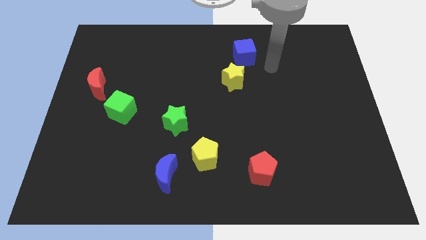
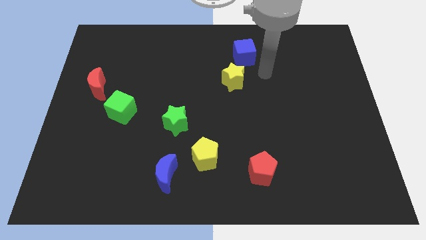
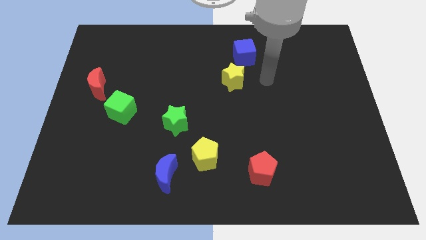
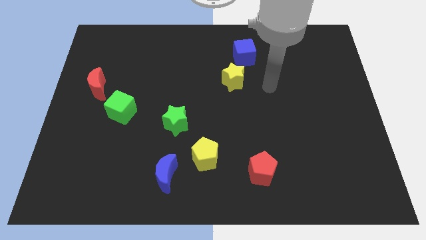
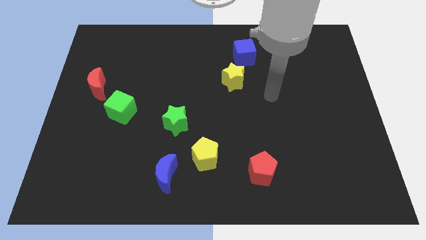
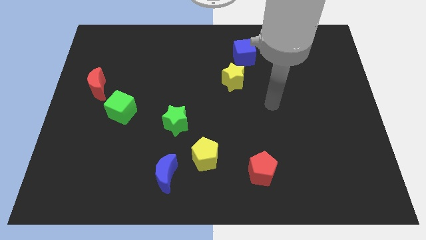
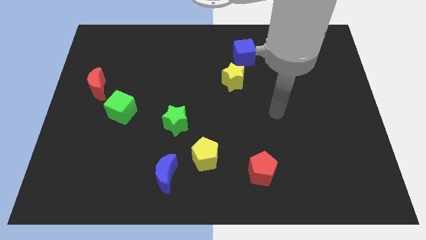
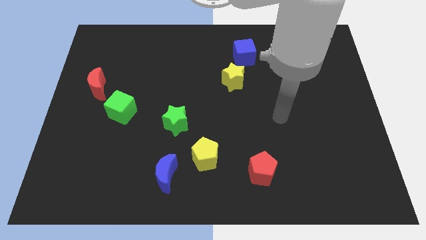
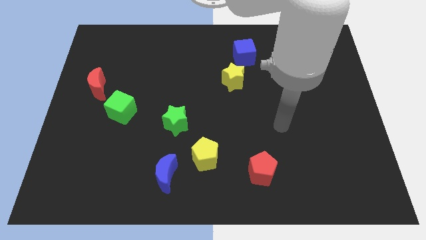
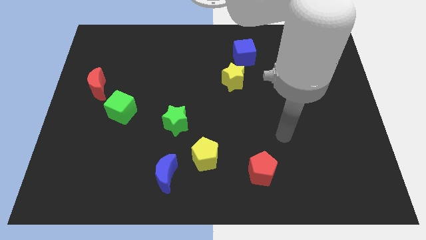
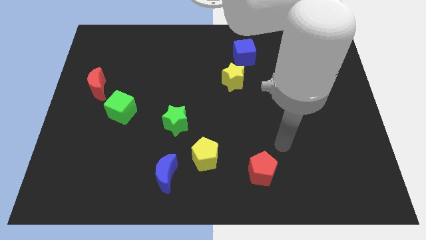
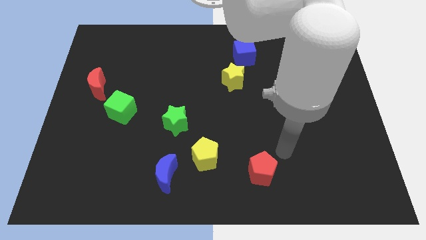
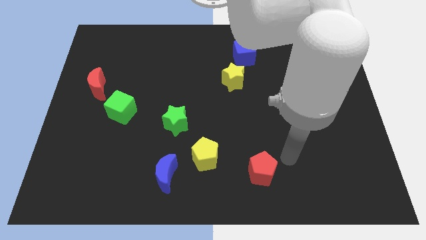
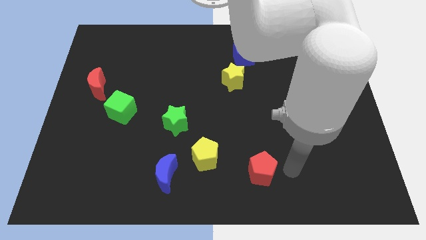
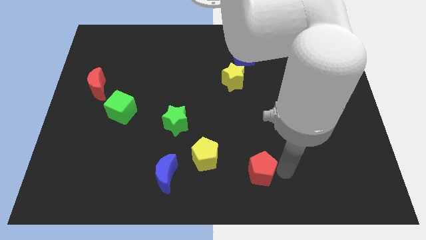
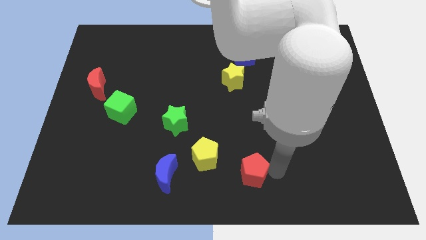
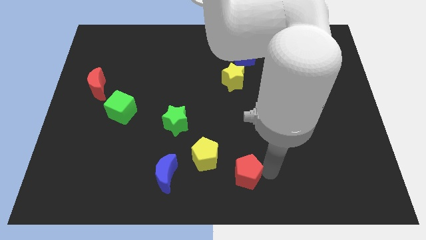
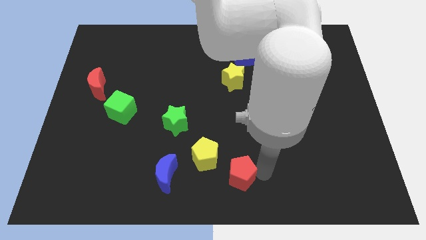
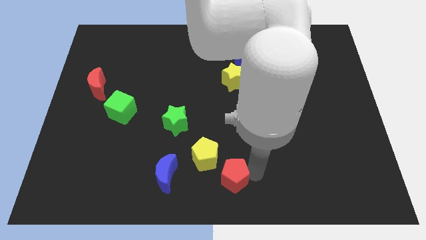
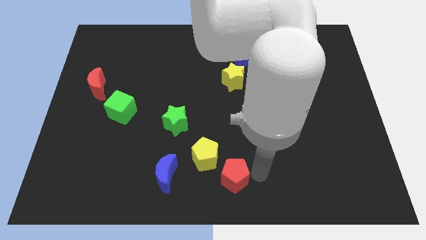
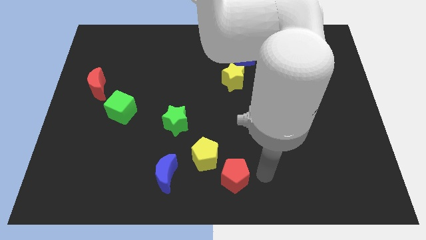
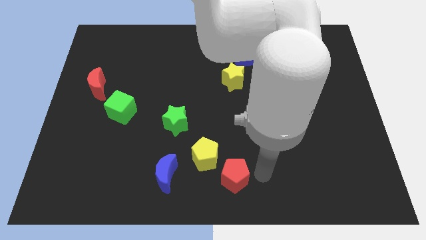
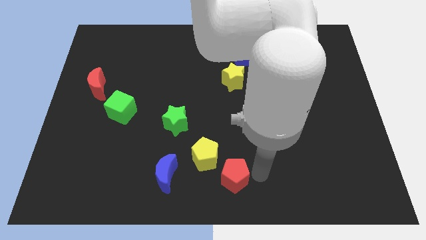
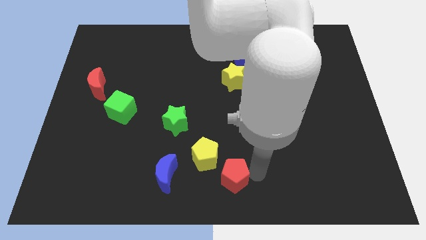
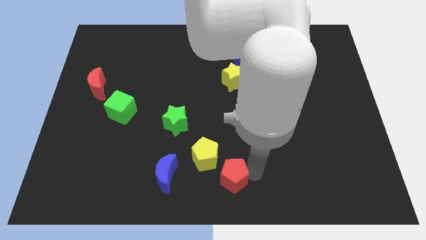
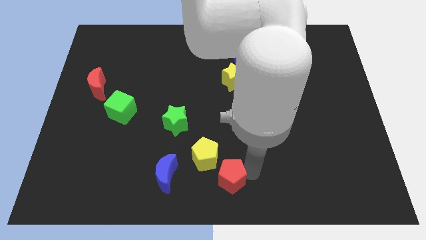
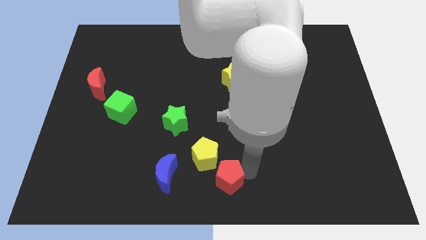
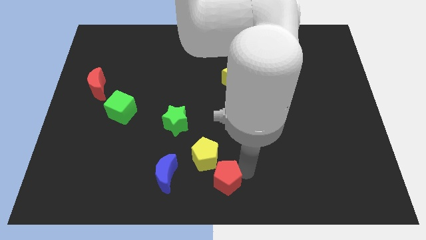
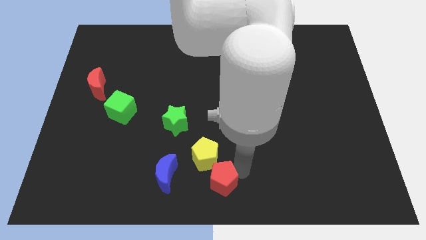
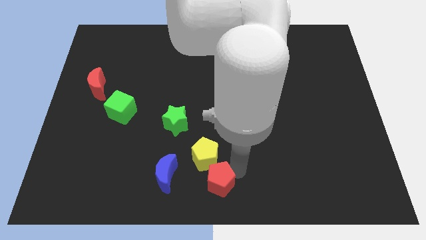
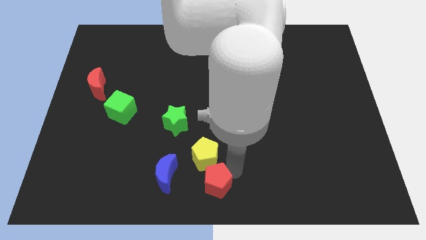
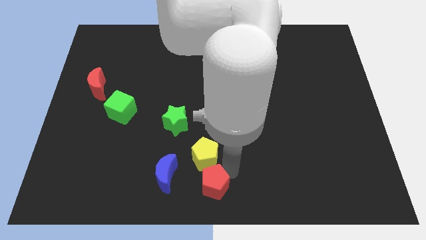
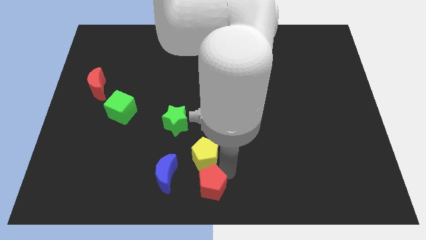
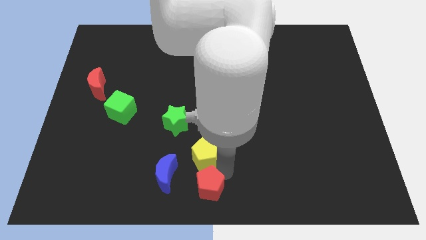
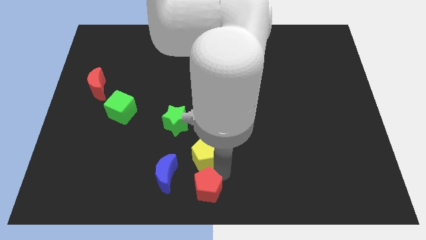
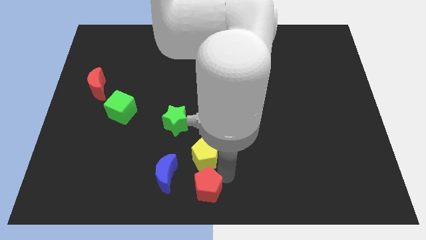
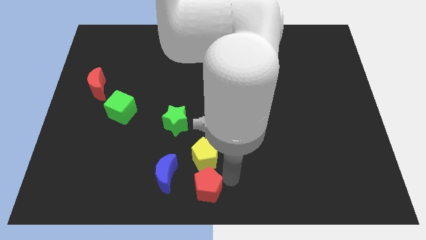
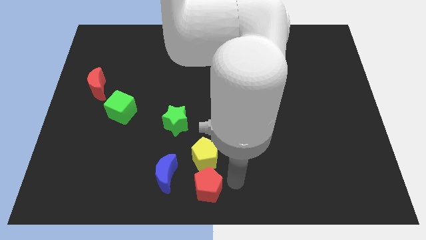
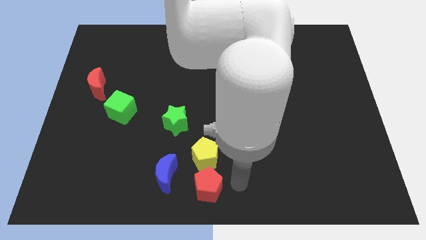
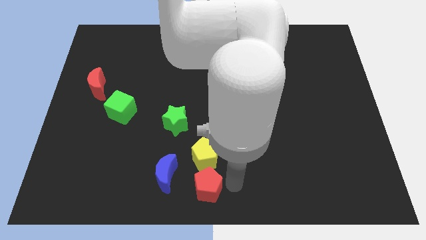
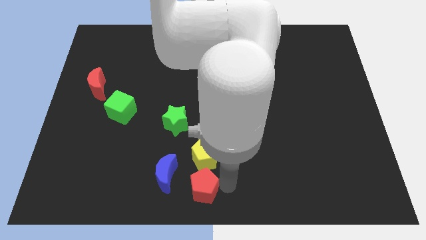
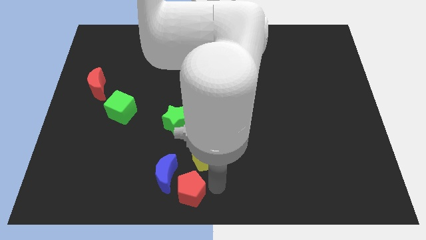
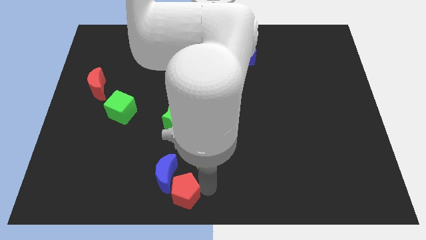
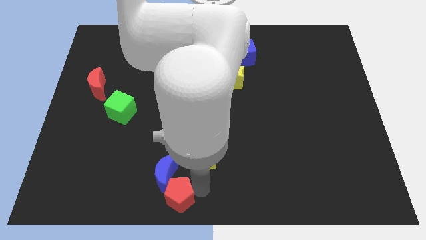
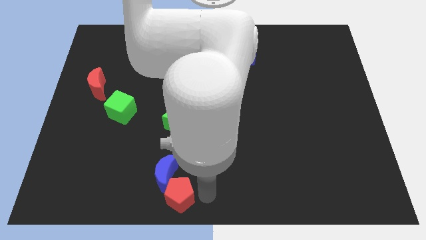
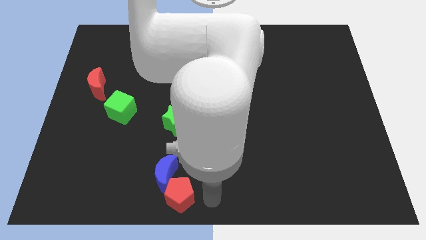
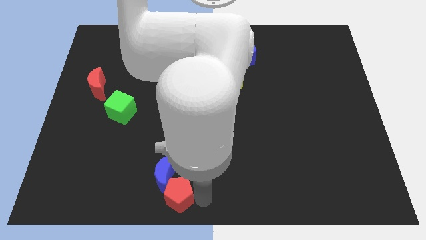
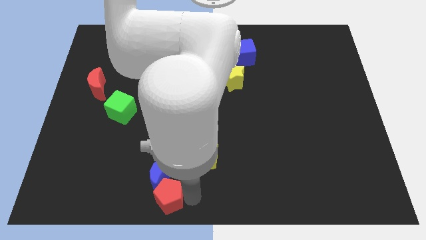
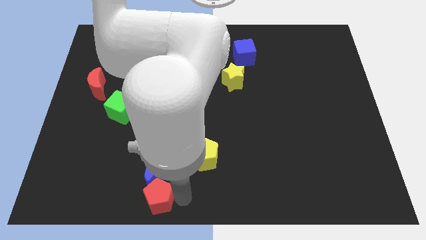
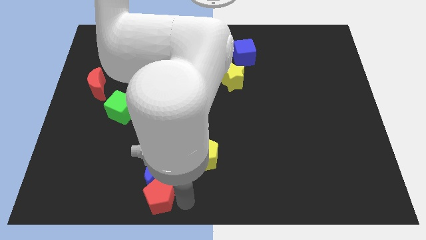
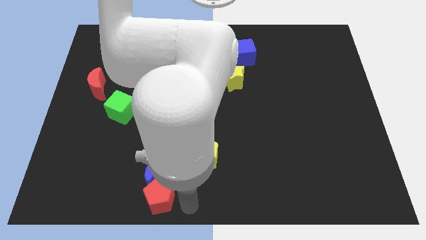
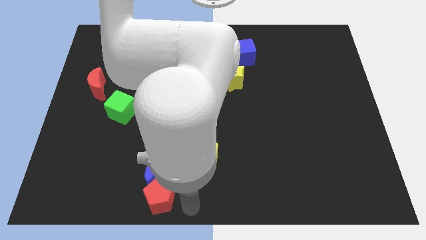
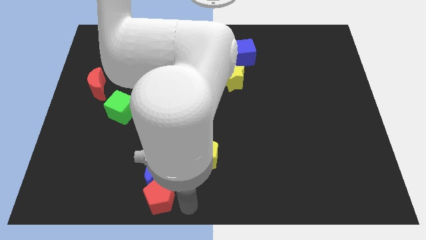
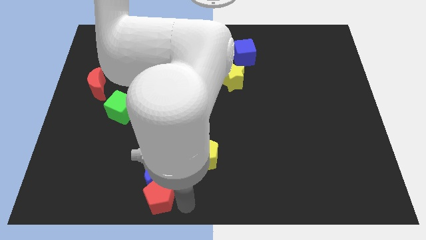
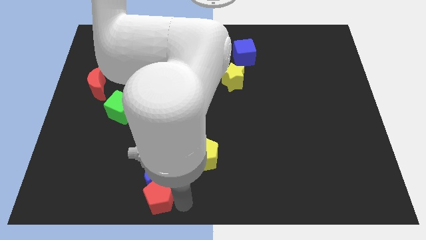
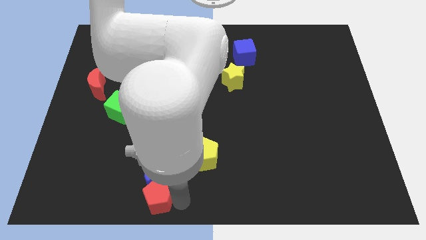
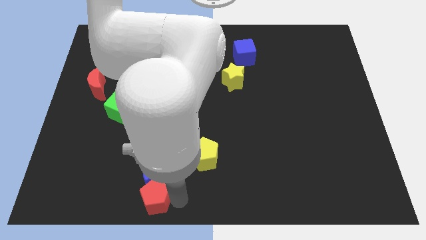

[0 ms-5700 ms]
push the red pentagon to the left

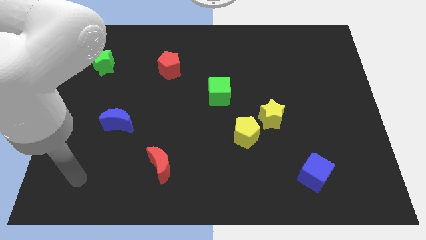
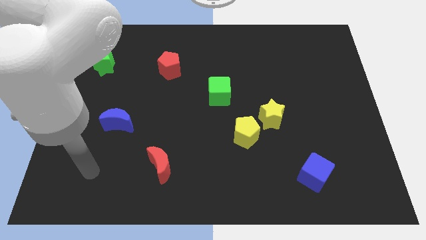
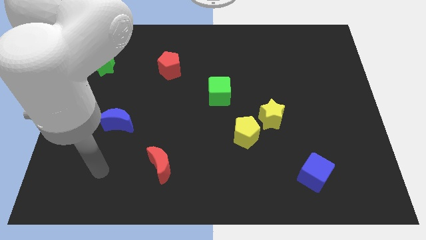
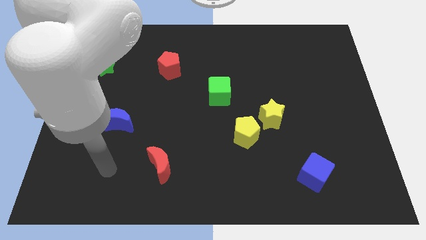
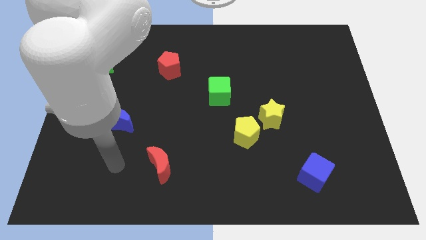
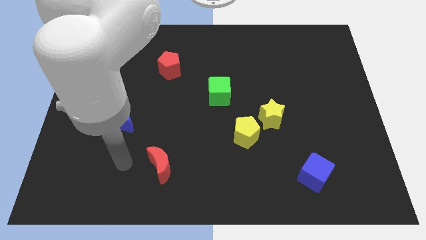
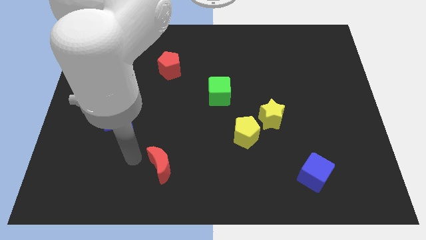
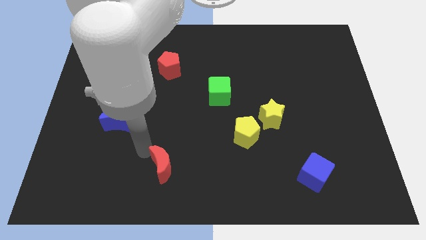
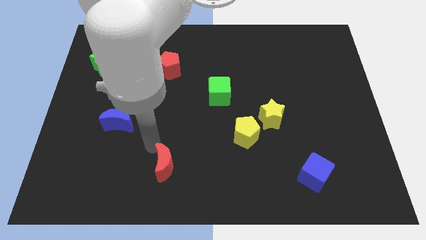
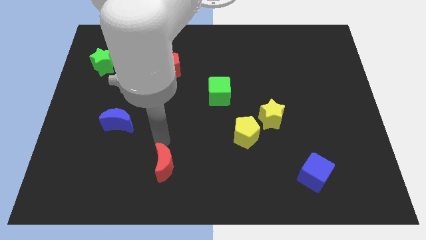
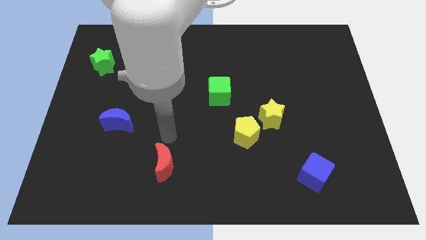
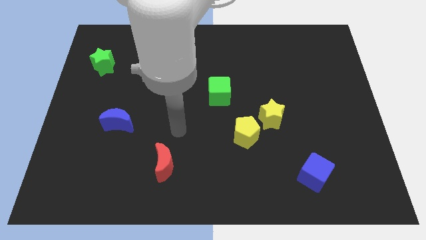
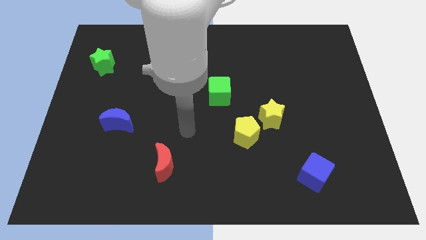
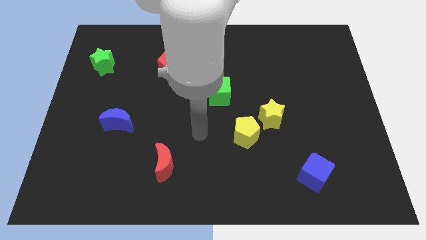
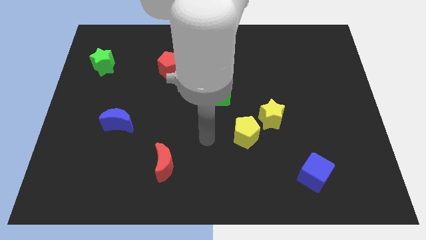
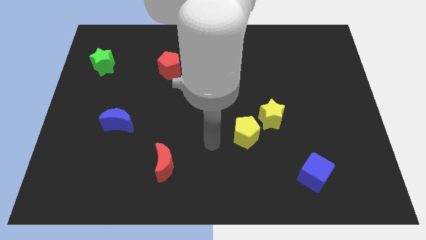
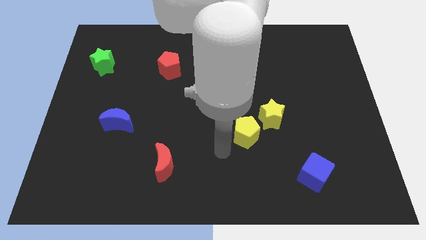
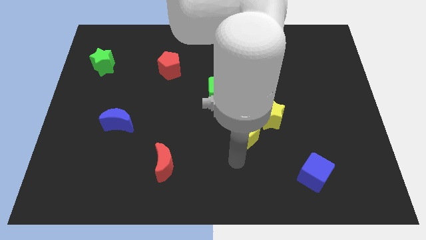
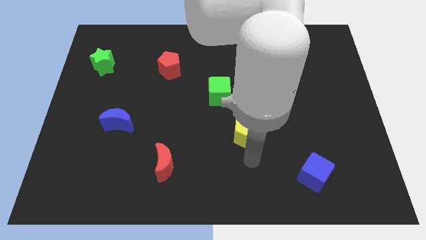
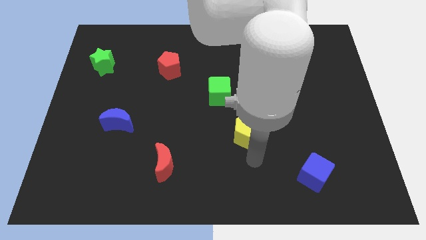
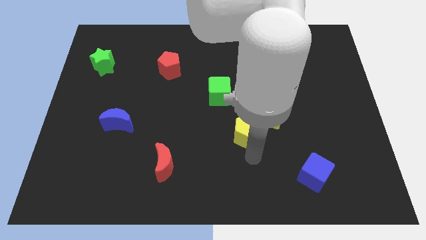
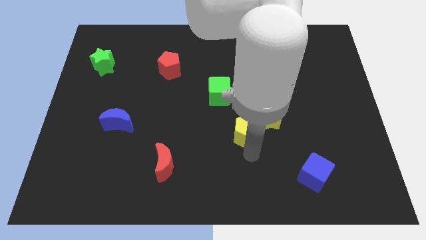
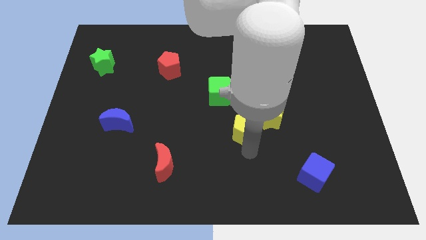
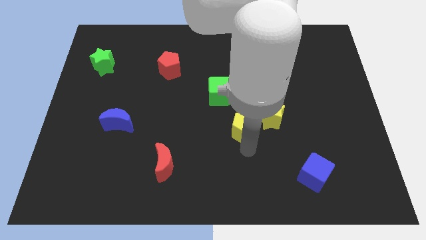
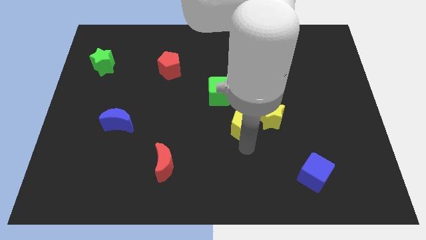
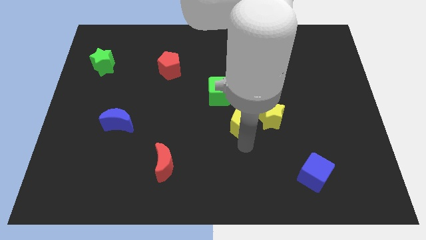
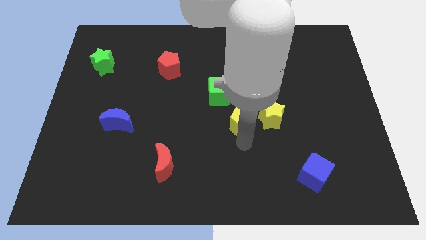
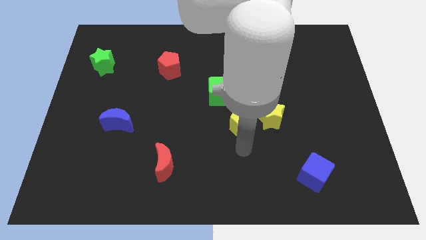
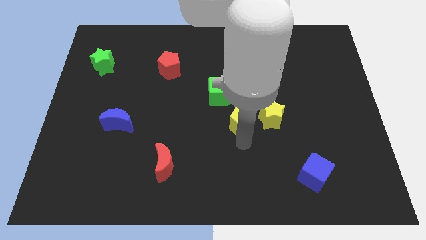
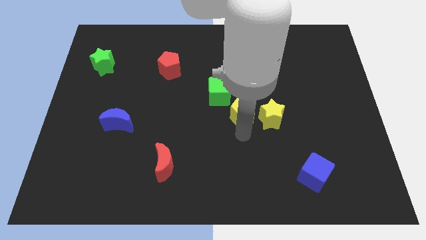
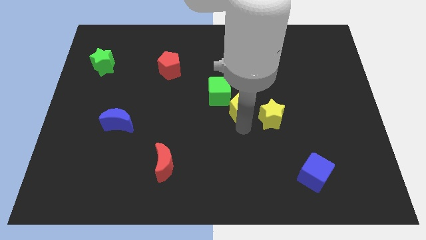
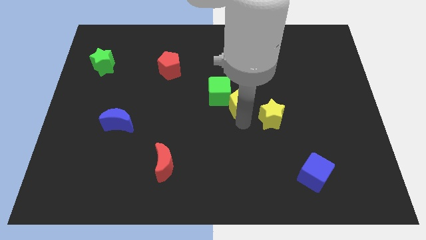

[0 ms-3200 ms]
slightly slide the yellow pentagon upwards
